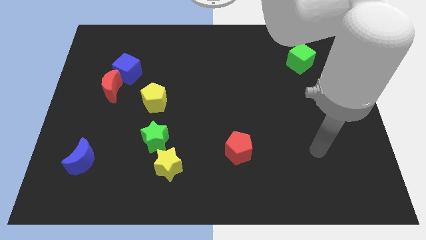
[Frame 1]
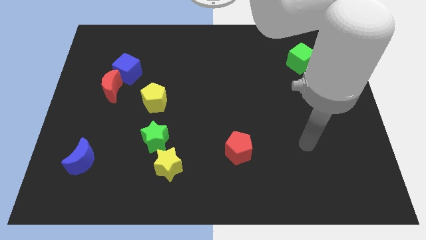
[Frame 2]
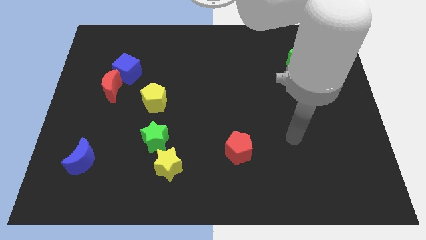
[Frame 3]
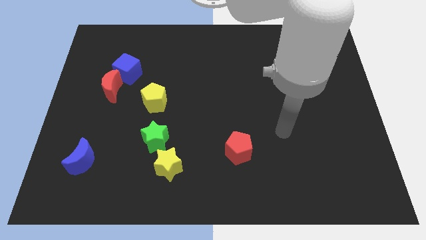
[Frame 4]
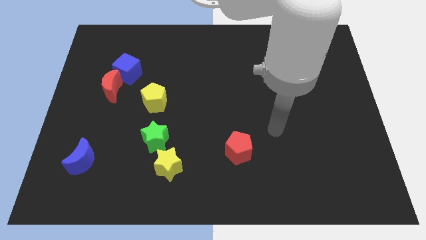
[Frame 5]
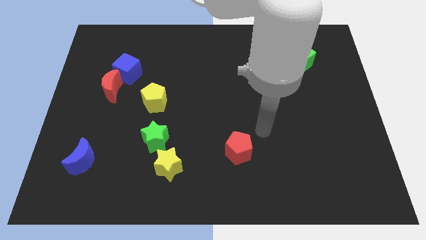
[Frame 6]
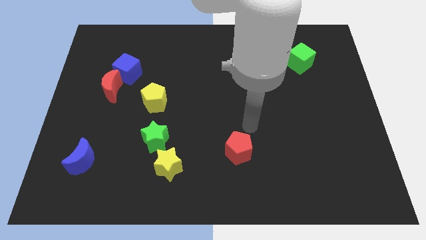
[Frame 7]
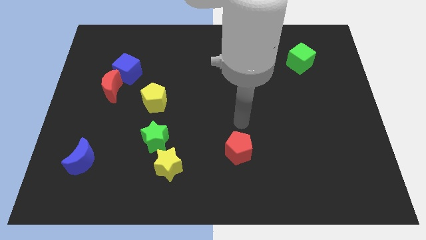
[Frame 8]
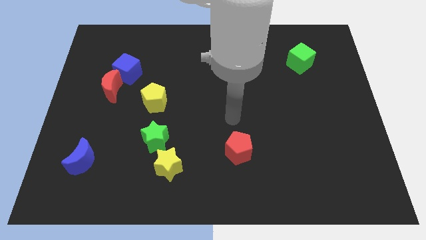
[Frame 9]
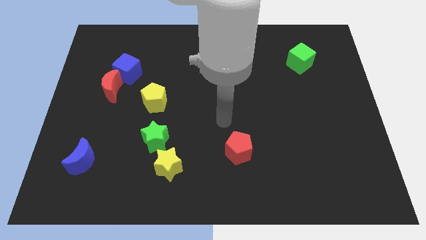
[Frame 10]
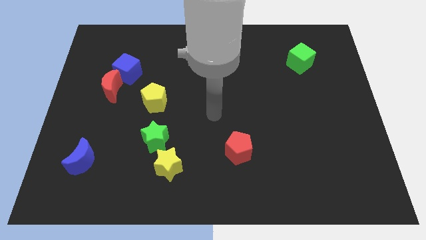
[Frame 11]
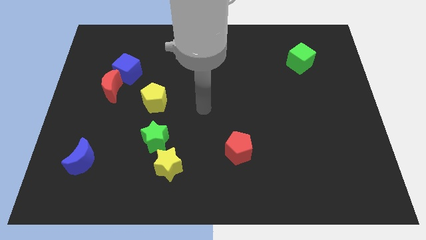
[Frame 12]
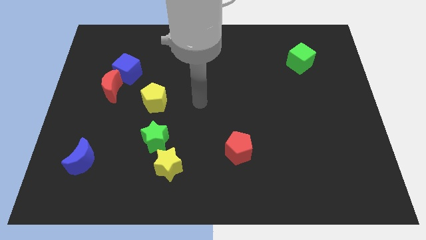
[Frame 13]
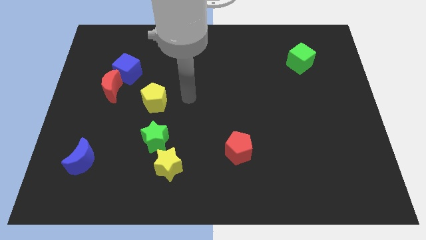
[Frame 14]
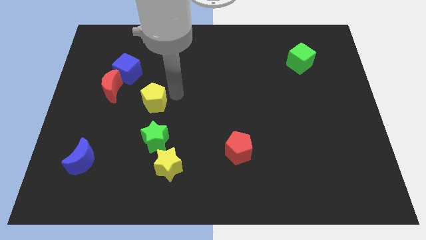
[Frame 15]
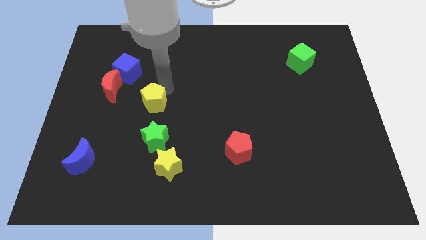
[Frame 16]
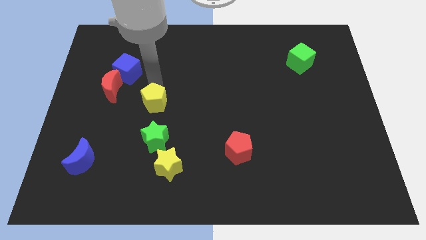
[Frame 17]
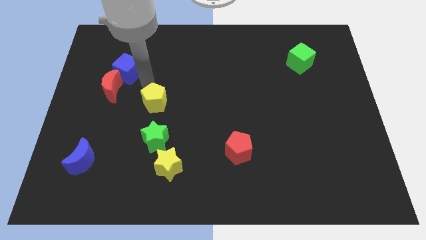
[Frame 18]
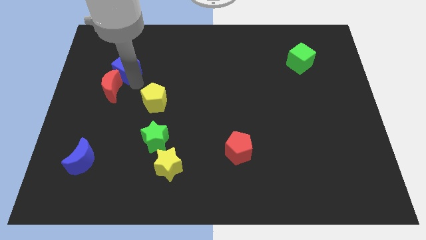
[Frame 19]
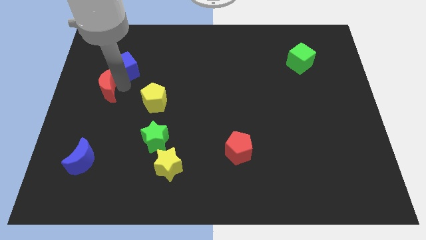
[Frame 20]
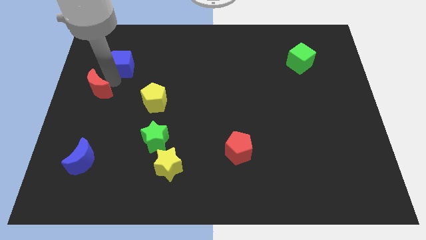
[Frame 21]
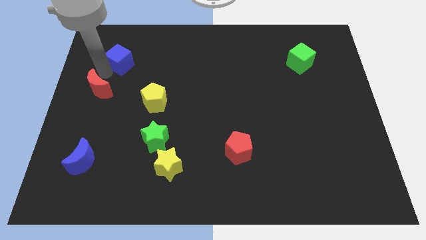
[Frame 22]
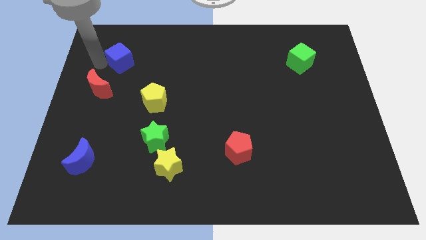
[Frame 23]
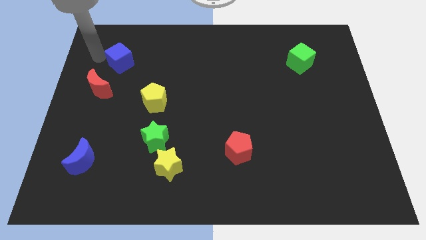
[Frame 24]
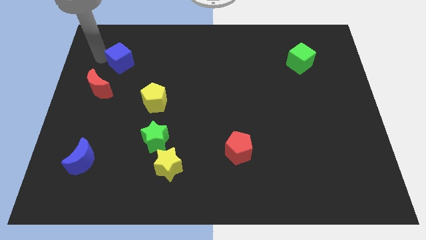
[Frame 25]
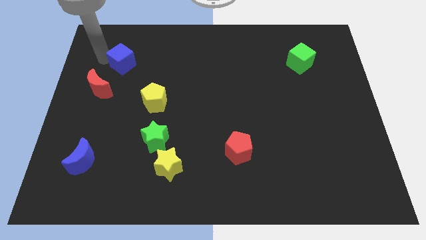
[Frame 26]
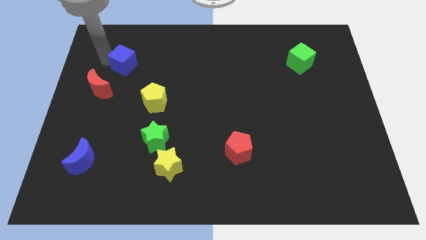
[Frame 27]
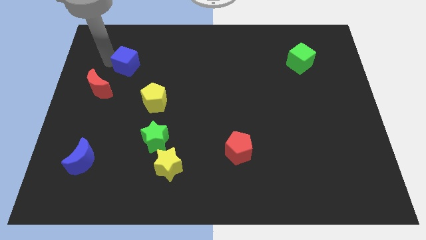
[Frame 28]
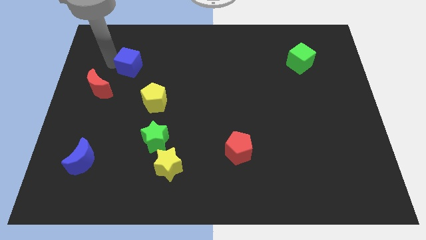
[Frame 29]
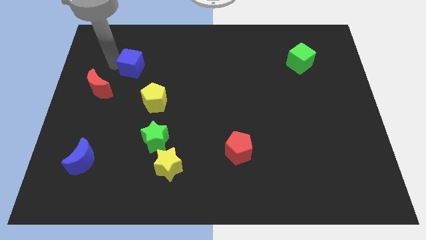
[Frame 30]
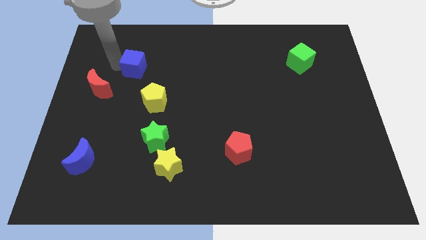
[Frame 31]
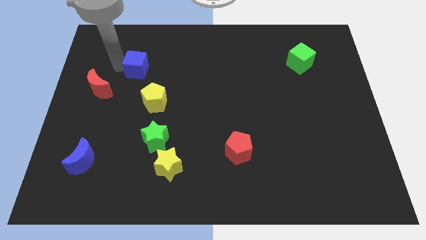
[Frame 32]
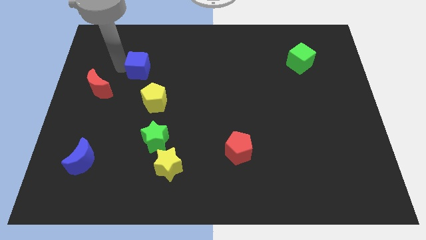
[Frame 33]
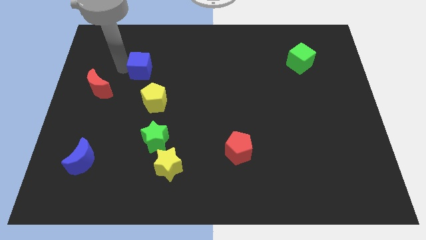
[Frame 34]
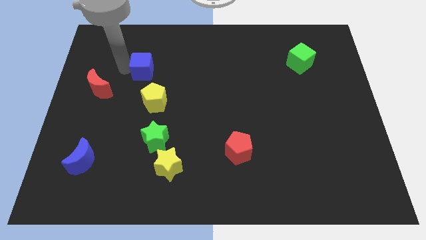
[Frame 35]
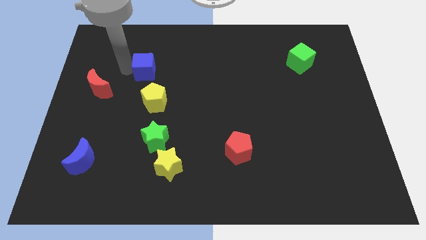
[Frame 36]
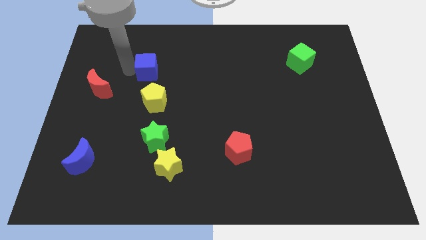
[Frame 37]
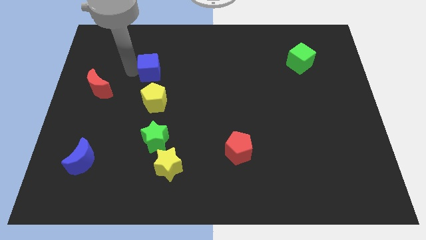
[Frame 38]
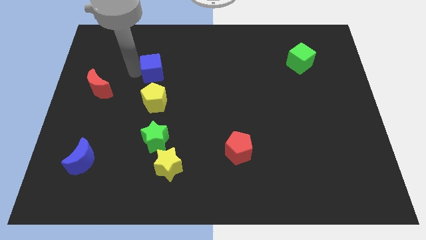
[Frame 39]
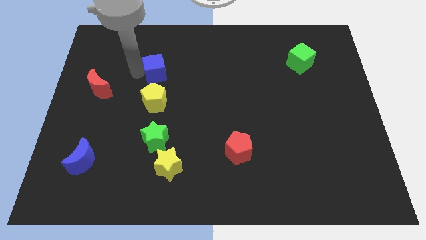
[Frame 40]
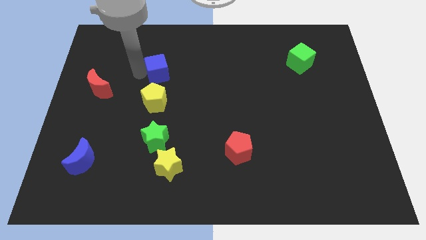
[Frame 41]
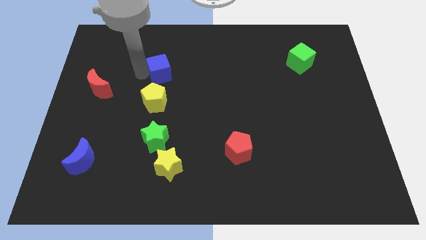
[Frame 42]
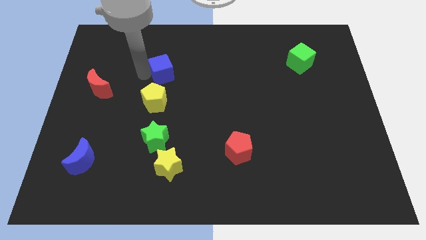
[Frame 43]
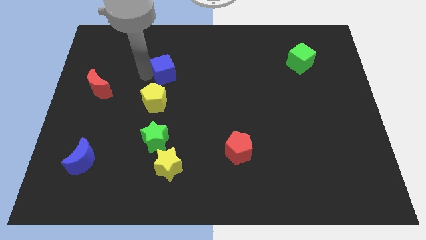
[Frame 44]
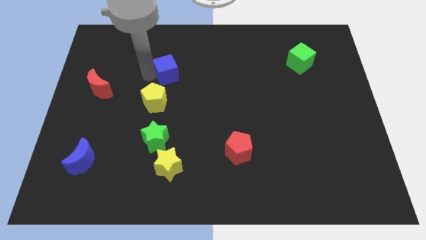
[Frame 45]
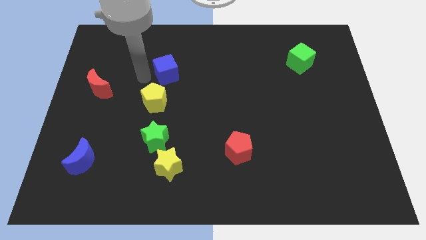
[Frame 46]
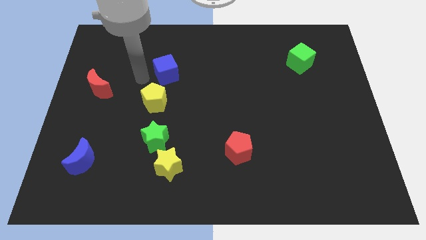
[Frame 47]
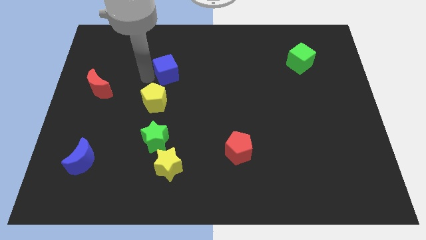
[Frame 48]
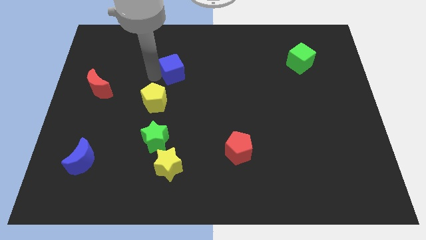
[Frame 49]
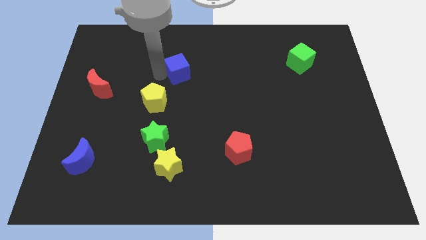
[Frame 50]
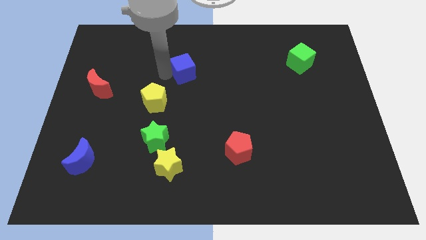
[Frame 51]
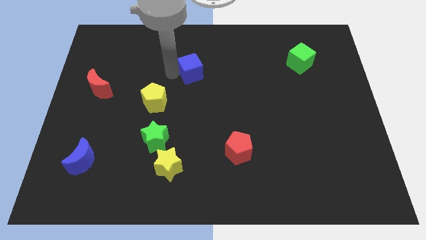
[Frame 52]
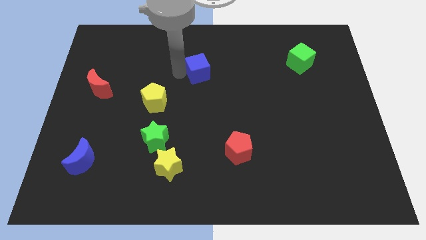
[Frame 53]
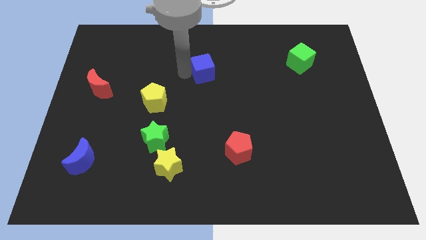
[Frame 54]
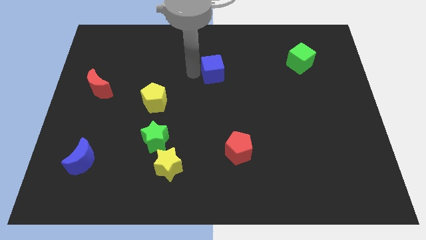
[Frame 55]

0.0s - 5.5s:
slide the blue cube right

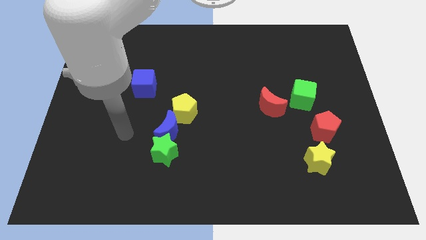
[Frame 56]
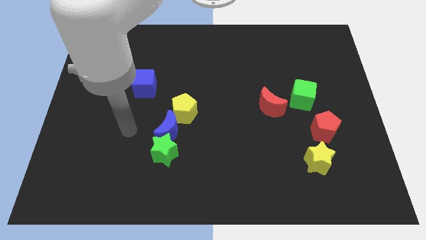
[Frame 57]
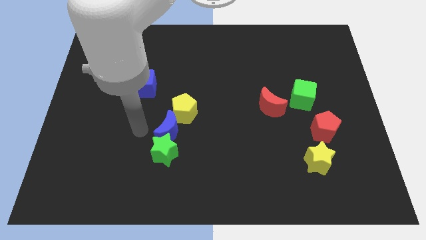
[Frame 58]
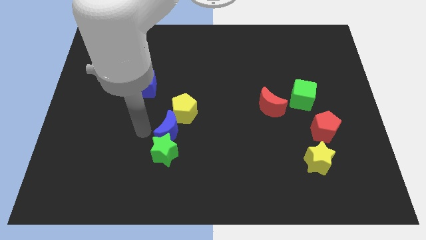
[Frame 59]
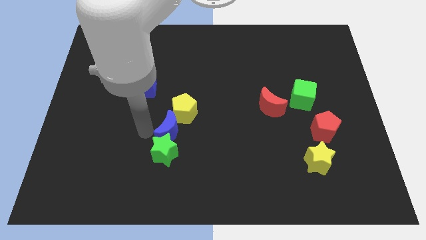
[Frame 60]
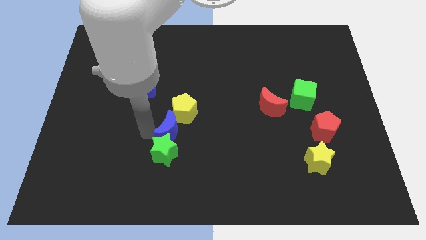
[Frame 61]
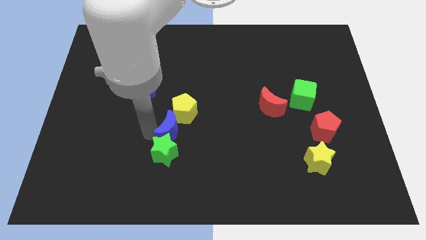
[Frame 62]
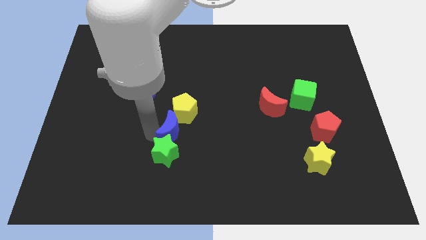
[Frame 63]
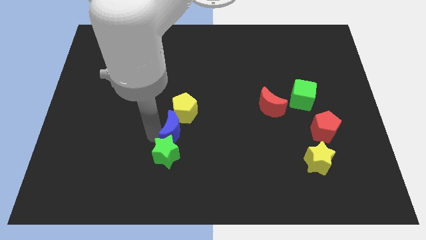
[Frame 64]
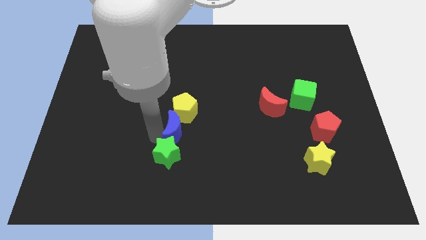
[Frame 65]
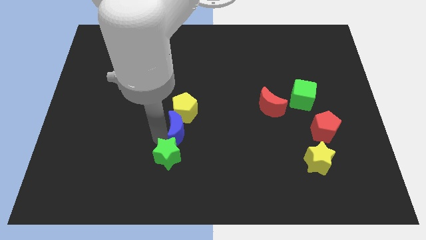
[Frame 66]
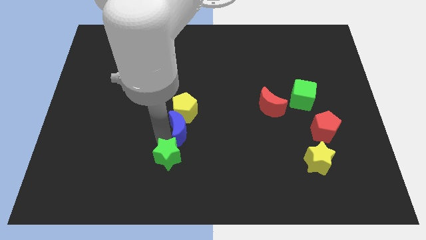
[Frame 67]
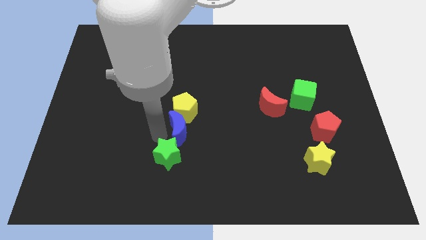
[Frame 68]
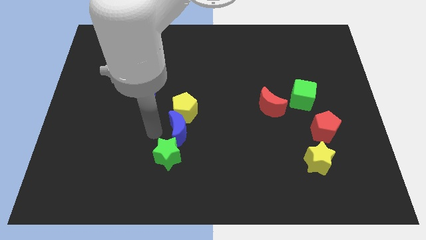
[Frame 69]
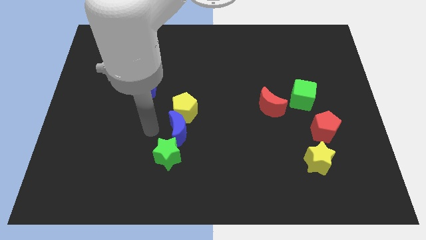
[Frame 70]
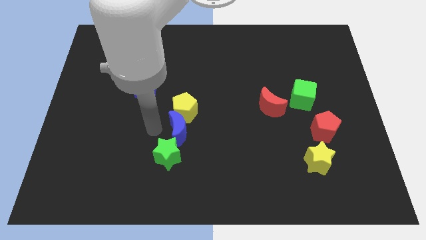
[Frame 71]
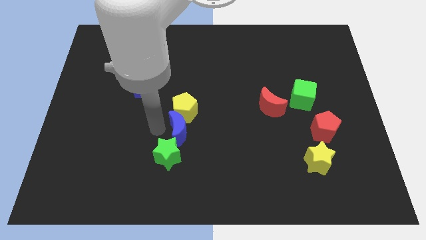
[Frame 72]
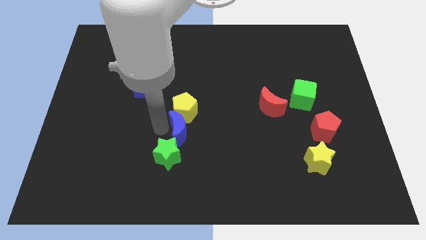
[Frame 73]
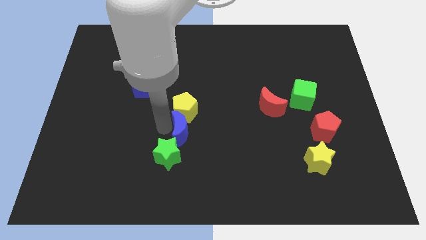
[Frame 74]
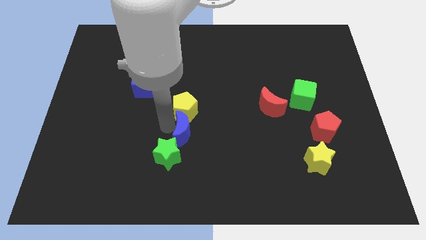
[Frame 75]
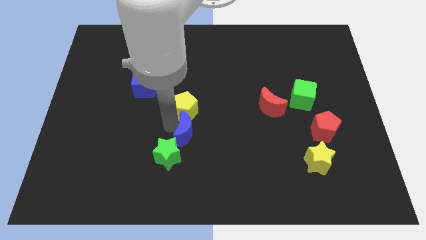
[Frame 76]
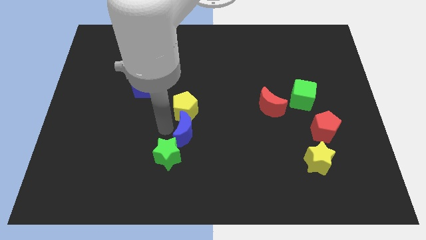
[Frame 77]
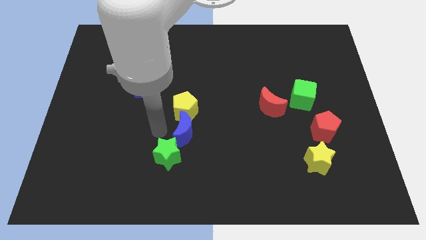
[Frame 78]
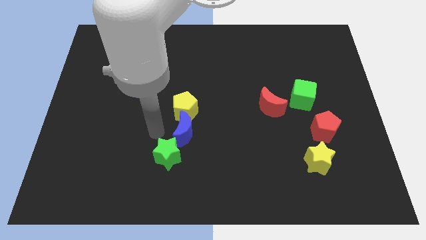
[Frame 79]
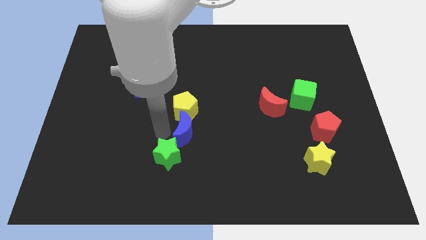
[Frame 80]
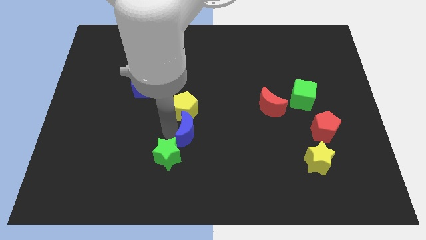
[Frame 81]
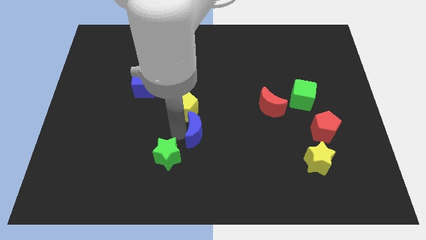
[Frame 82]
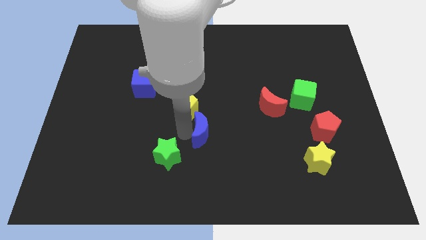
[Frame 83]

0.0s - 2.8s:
slide the blue moon slightly to the right
